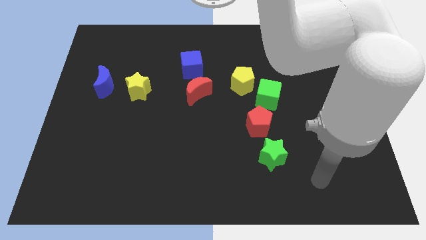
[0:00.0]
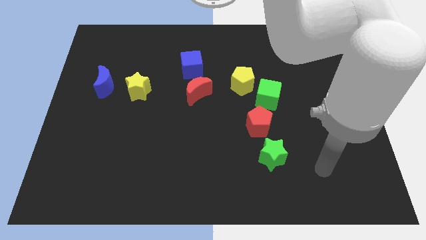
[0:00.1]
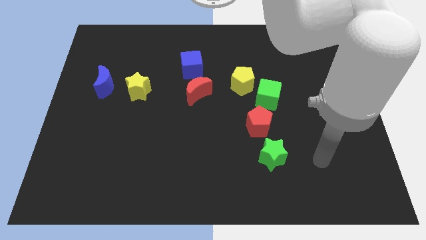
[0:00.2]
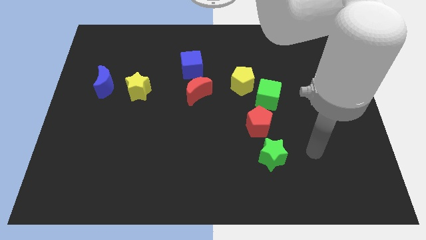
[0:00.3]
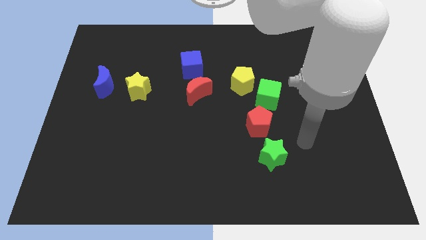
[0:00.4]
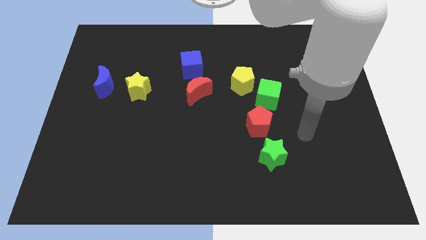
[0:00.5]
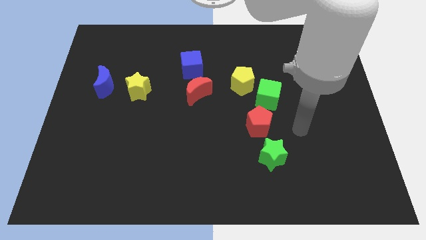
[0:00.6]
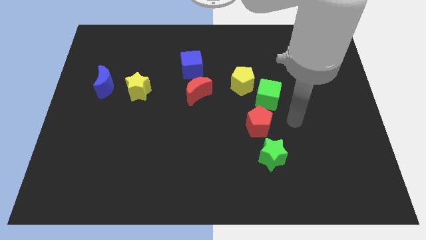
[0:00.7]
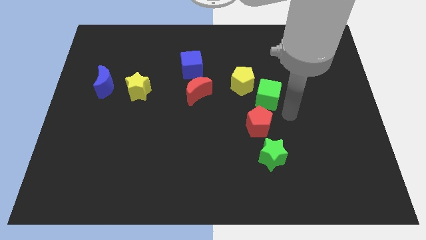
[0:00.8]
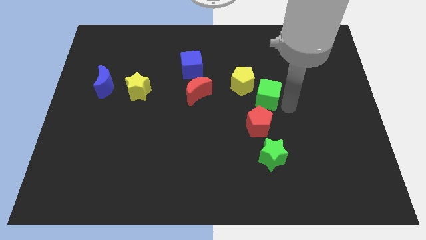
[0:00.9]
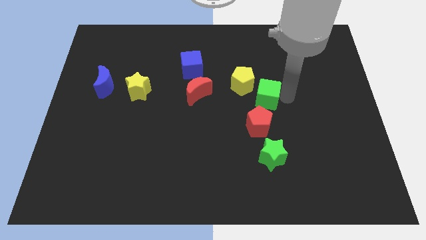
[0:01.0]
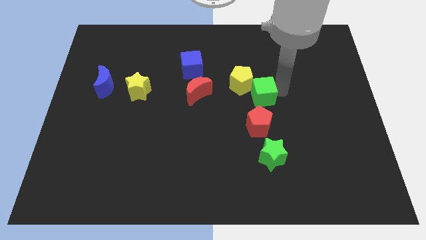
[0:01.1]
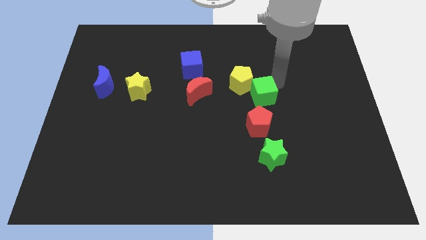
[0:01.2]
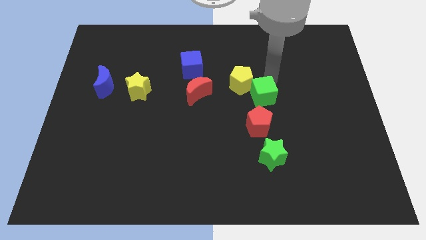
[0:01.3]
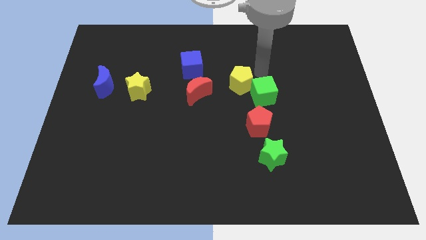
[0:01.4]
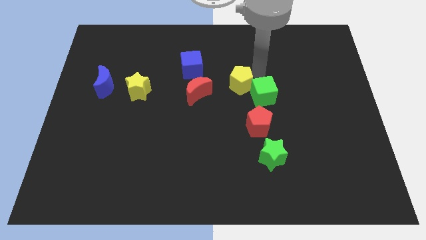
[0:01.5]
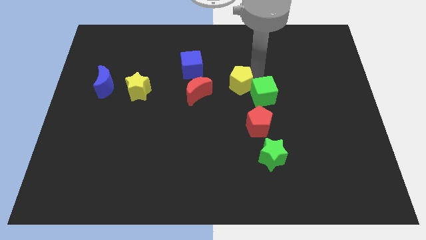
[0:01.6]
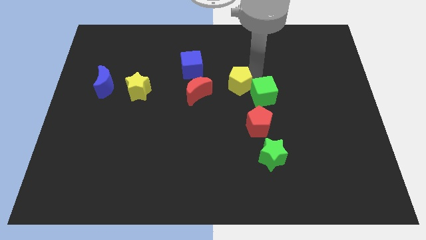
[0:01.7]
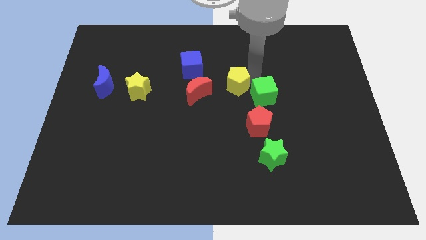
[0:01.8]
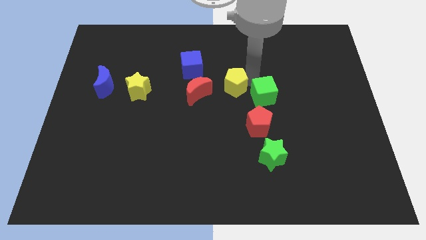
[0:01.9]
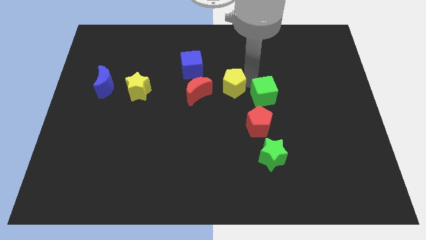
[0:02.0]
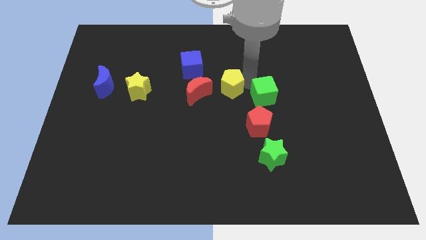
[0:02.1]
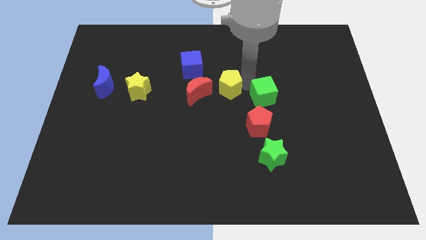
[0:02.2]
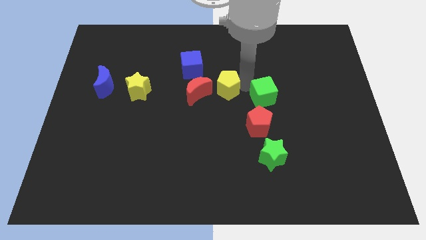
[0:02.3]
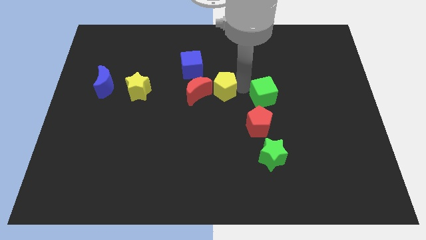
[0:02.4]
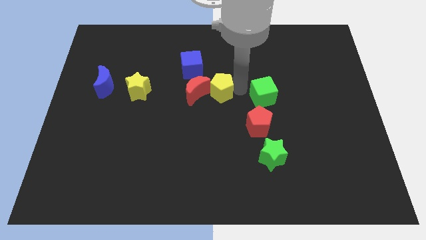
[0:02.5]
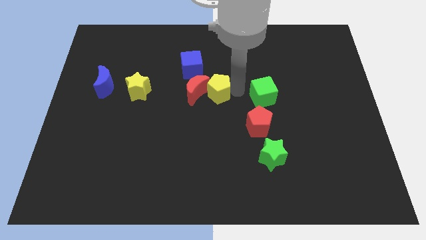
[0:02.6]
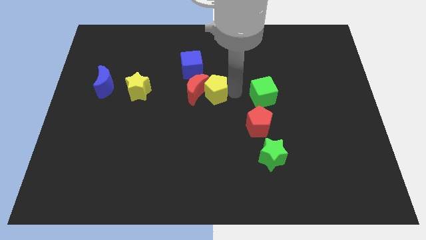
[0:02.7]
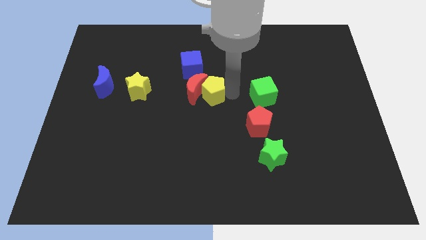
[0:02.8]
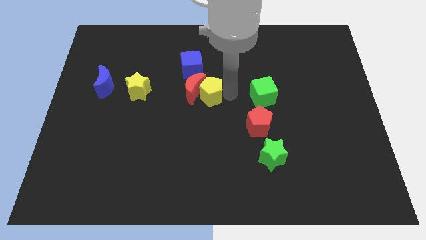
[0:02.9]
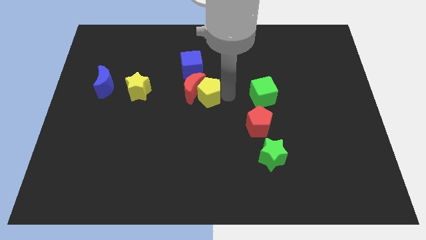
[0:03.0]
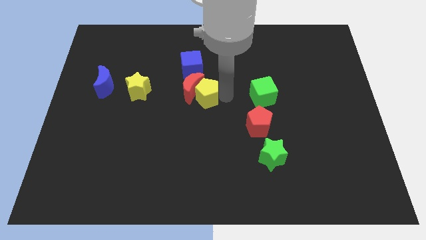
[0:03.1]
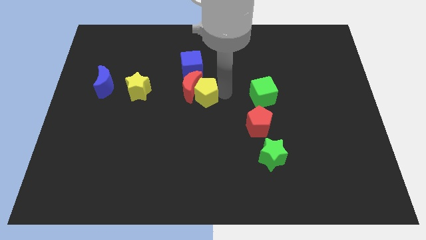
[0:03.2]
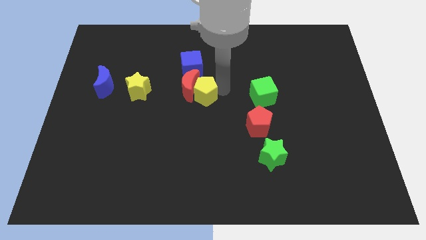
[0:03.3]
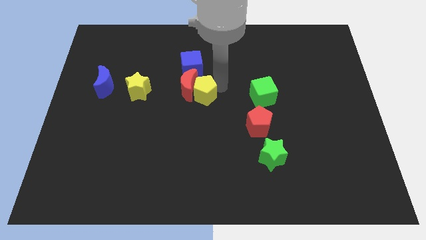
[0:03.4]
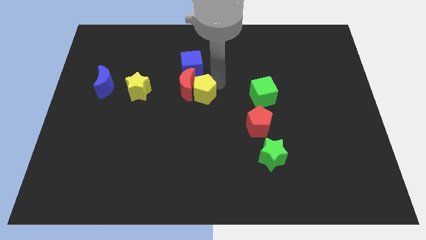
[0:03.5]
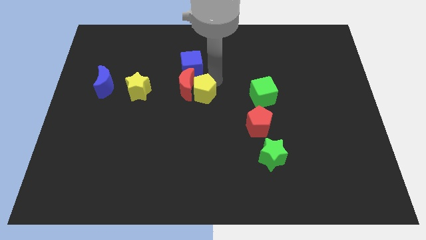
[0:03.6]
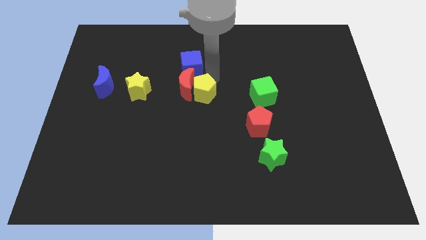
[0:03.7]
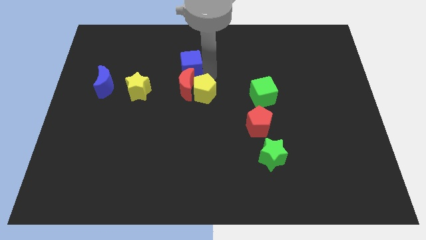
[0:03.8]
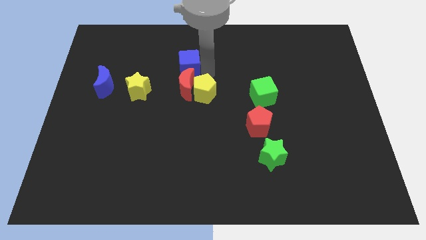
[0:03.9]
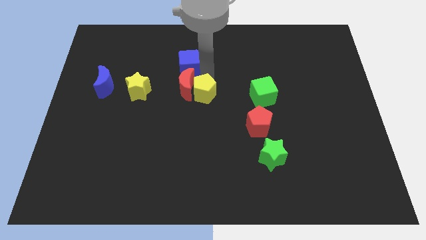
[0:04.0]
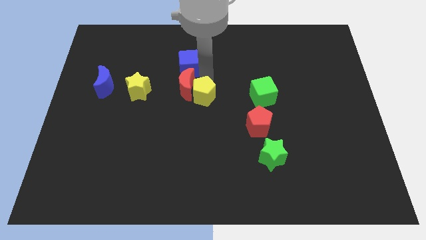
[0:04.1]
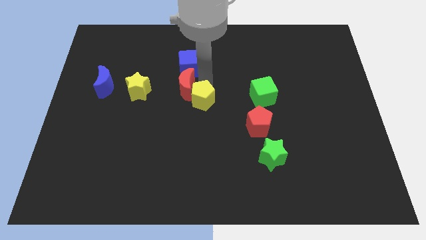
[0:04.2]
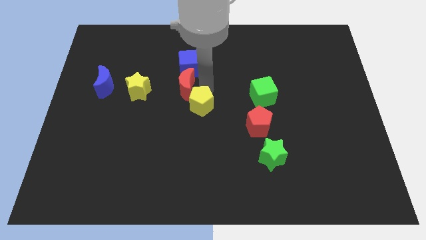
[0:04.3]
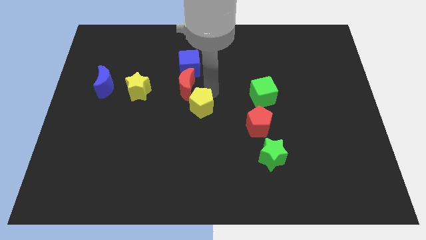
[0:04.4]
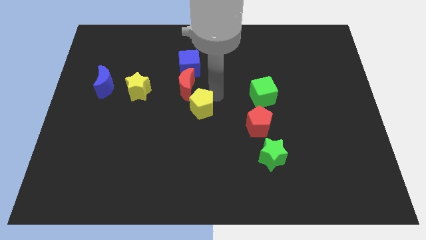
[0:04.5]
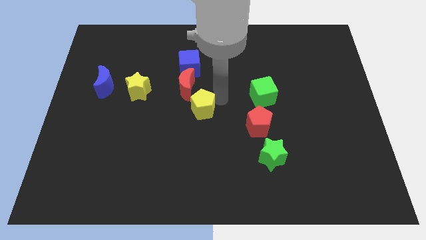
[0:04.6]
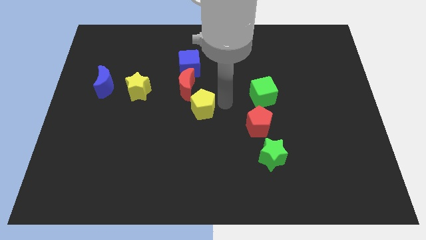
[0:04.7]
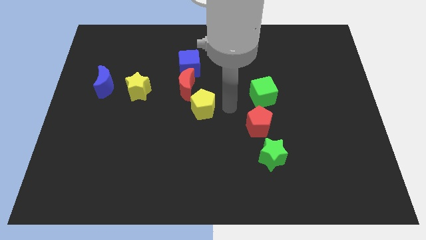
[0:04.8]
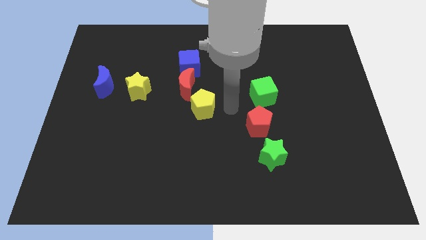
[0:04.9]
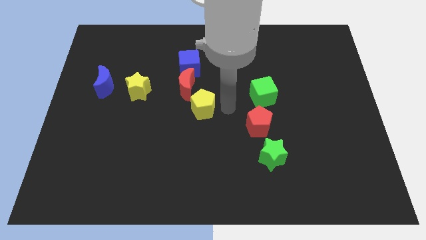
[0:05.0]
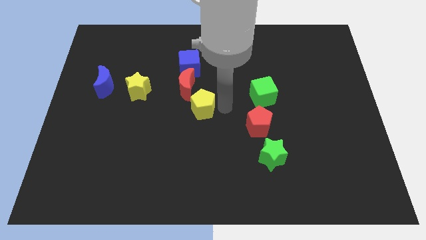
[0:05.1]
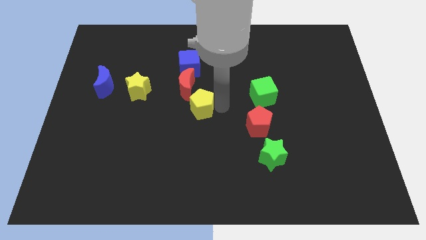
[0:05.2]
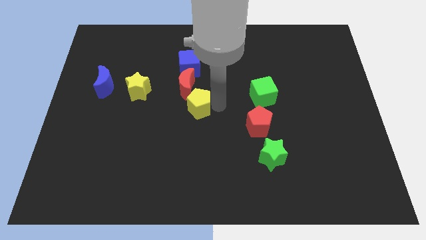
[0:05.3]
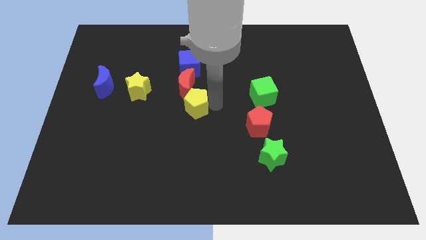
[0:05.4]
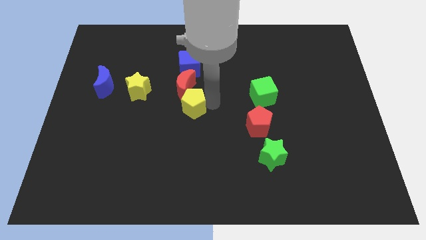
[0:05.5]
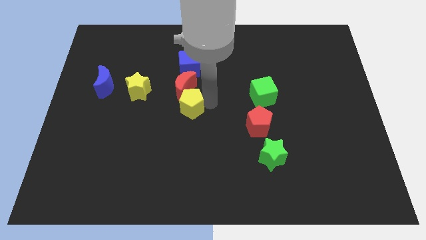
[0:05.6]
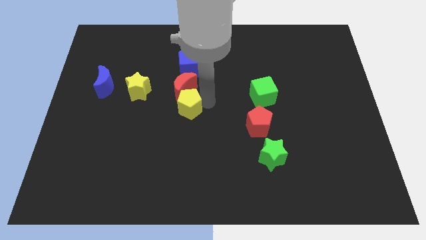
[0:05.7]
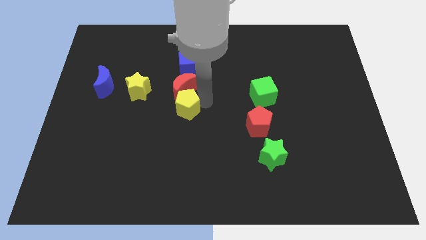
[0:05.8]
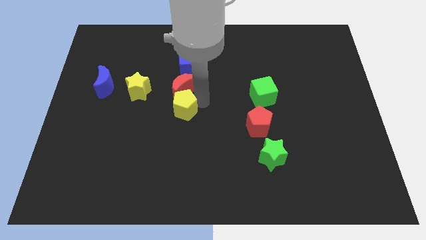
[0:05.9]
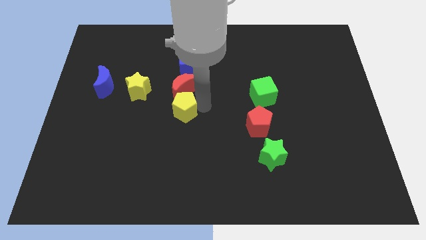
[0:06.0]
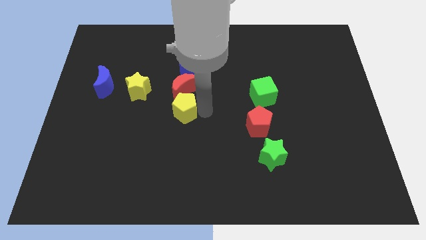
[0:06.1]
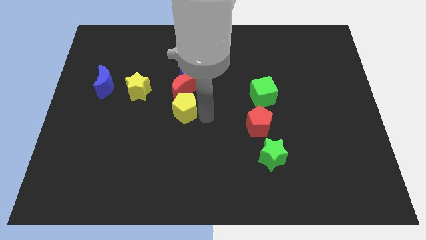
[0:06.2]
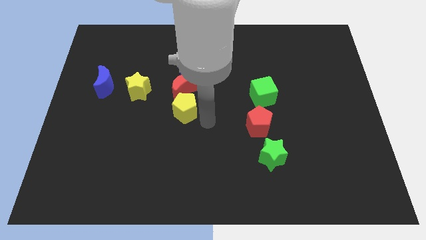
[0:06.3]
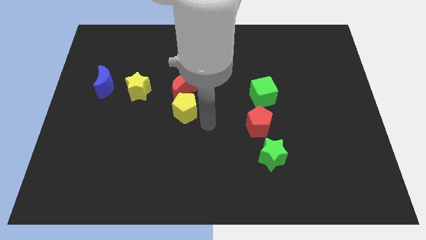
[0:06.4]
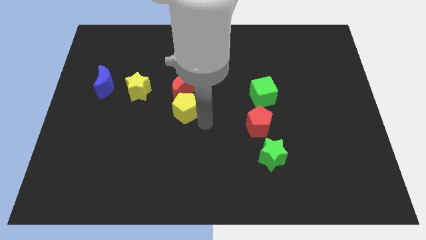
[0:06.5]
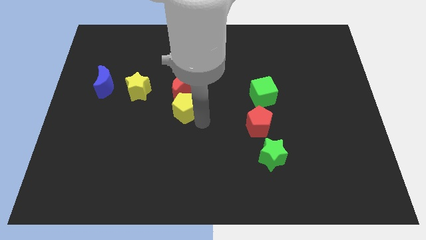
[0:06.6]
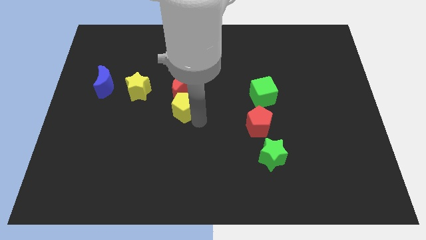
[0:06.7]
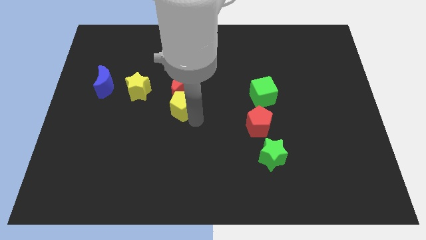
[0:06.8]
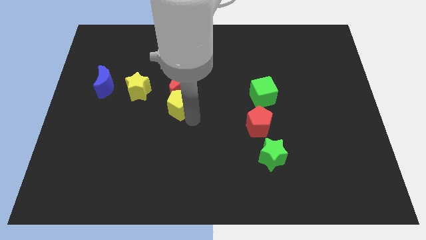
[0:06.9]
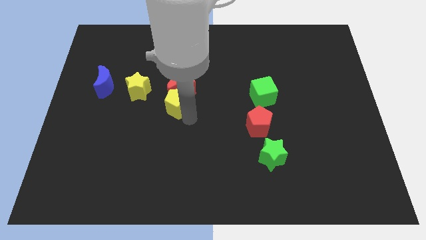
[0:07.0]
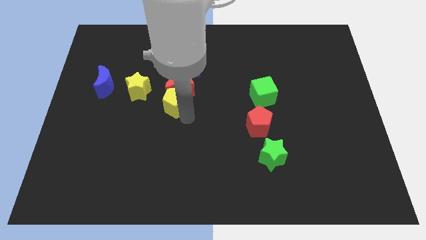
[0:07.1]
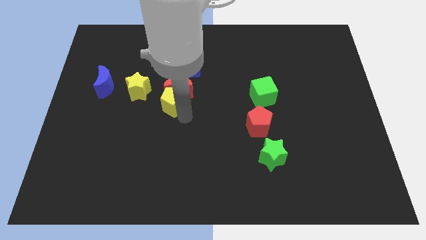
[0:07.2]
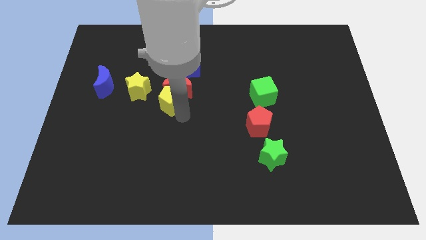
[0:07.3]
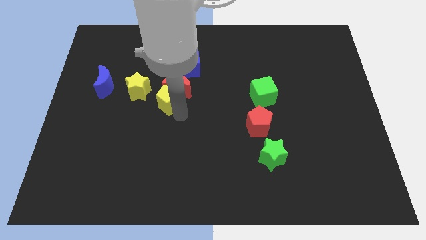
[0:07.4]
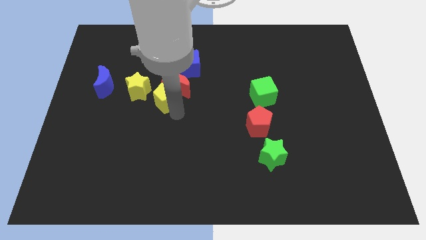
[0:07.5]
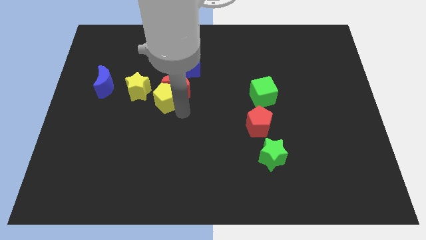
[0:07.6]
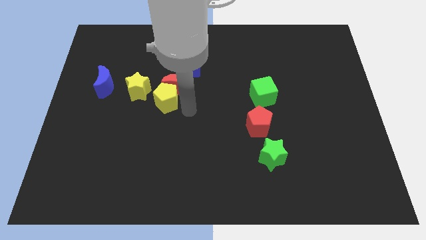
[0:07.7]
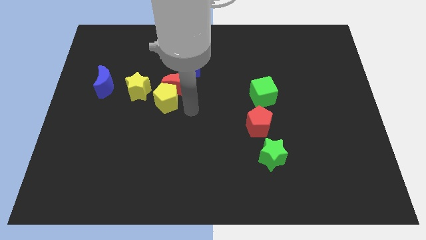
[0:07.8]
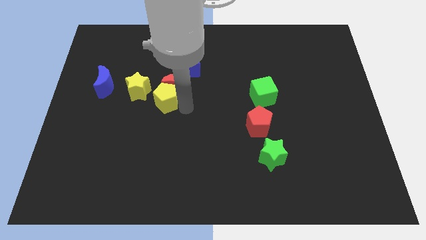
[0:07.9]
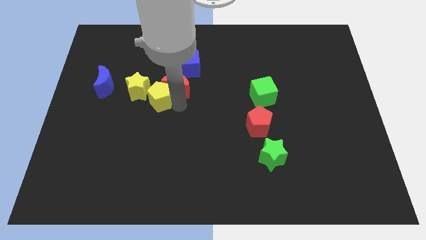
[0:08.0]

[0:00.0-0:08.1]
slide the yellow pentagon close to the yellow star
